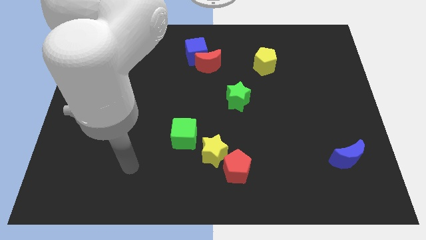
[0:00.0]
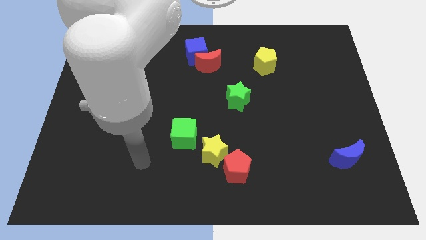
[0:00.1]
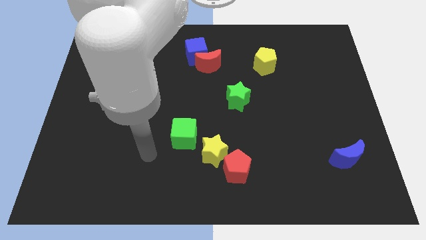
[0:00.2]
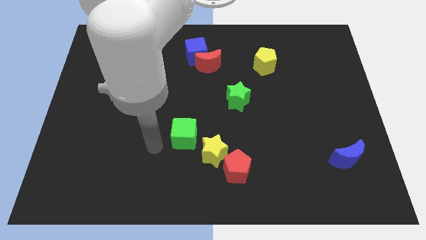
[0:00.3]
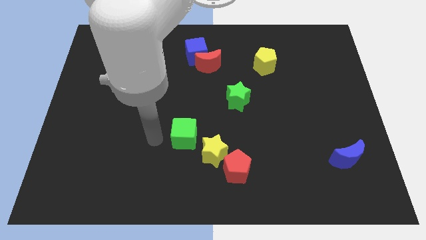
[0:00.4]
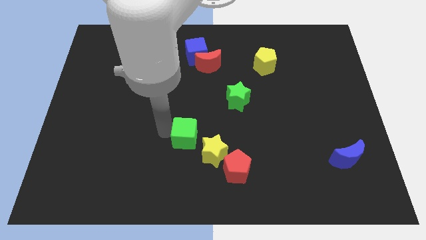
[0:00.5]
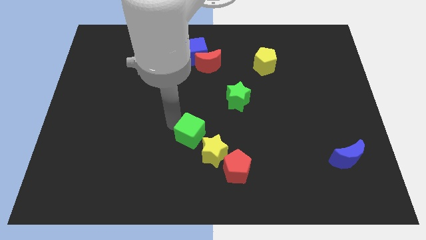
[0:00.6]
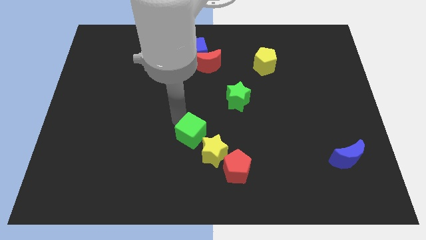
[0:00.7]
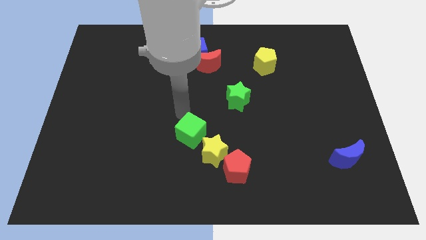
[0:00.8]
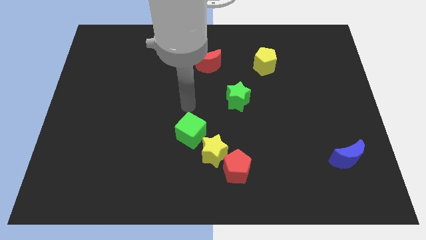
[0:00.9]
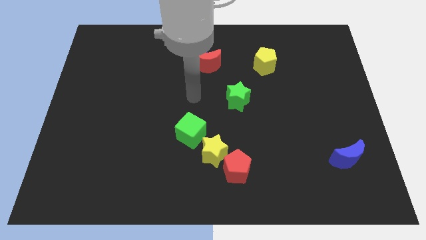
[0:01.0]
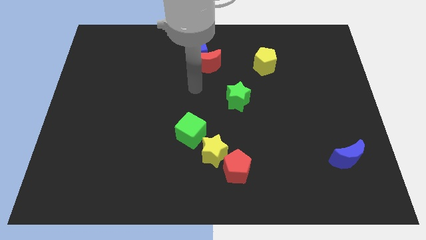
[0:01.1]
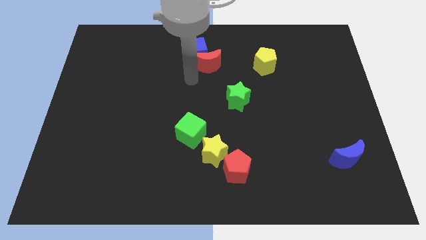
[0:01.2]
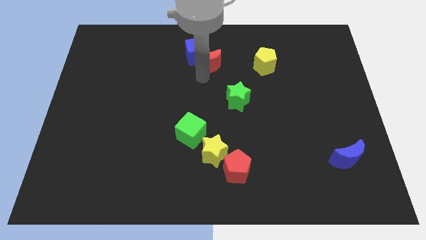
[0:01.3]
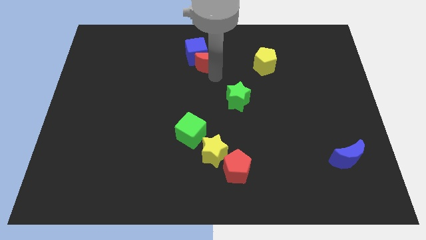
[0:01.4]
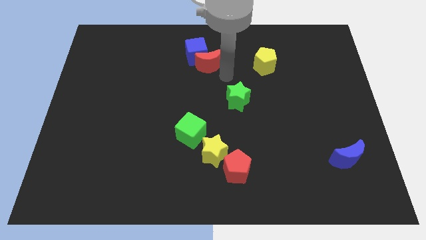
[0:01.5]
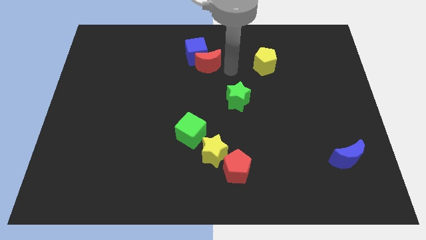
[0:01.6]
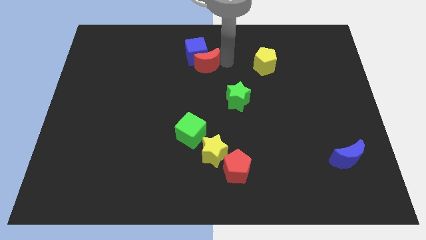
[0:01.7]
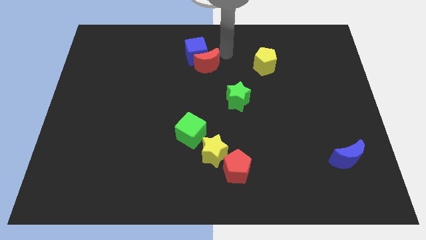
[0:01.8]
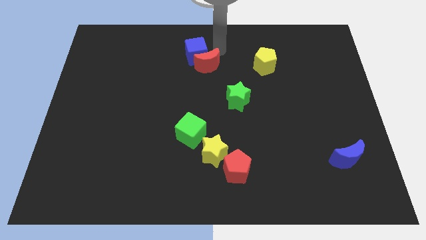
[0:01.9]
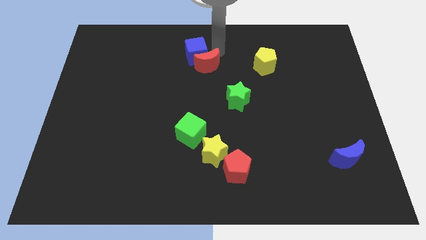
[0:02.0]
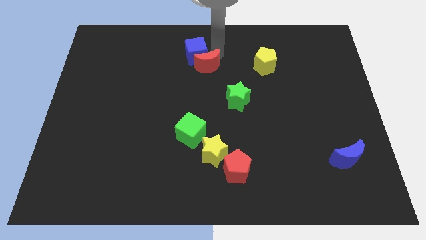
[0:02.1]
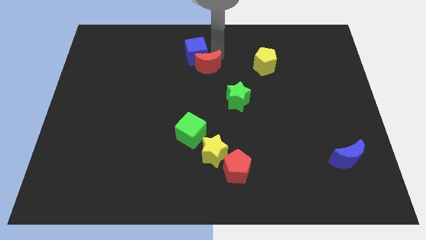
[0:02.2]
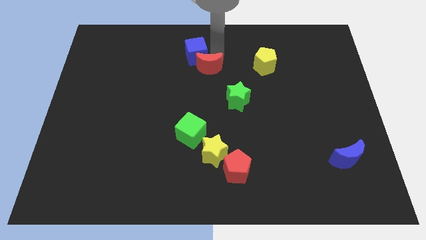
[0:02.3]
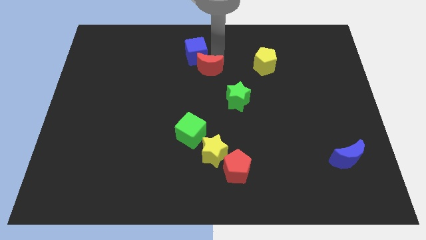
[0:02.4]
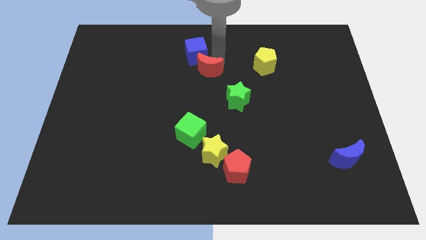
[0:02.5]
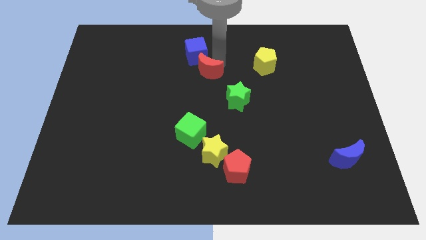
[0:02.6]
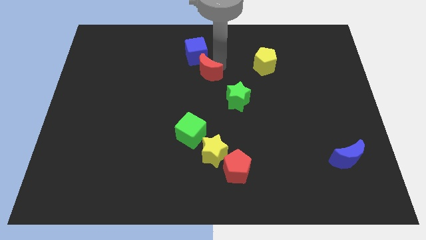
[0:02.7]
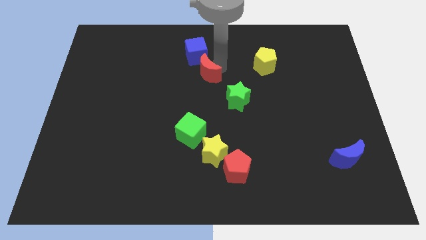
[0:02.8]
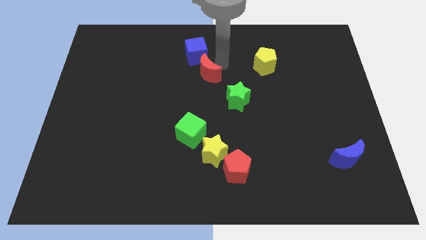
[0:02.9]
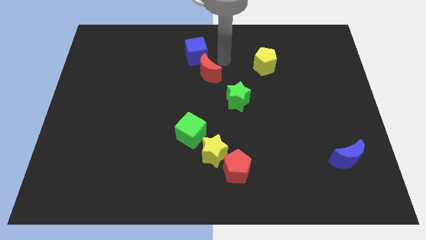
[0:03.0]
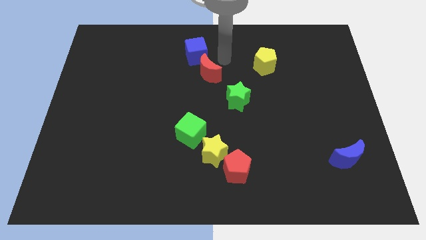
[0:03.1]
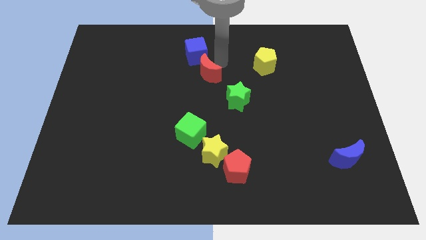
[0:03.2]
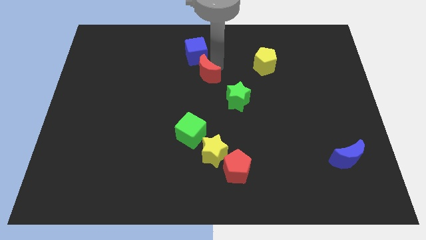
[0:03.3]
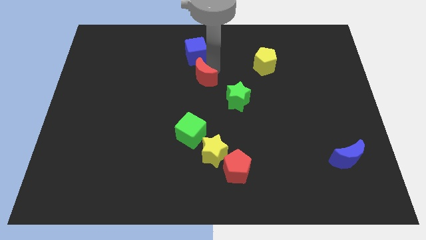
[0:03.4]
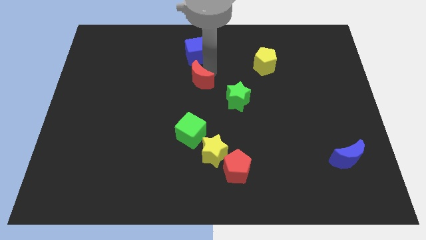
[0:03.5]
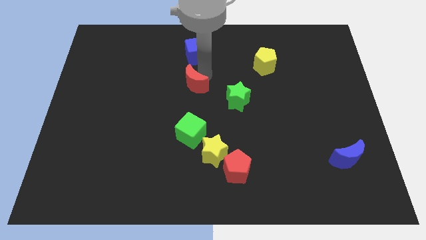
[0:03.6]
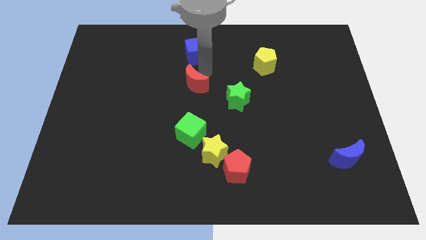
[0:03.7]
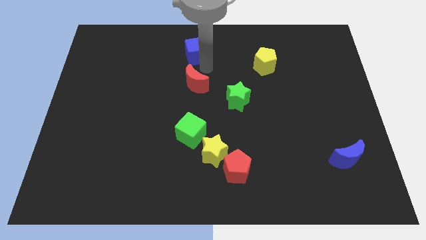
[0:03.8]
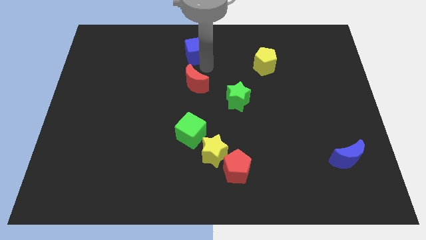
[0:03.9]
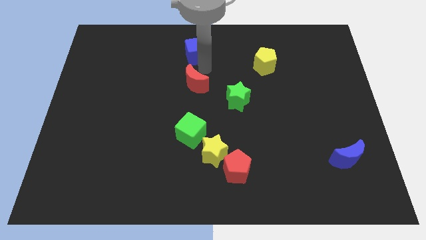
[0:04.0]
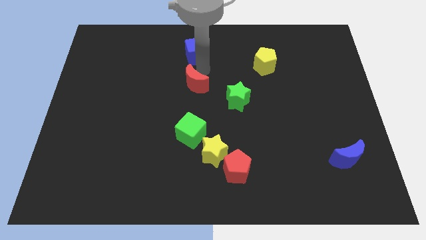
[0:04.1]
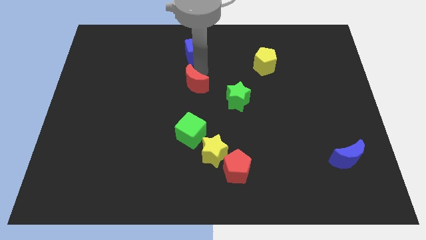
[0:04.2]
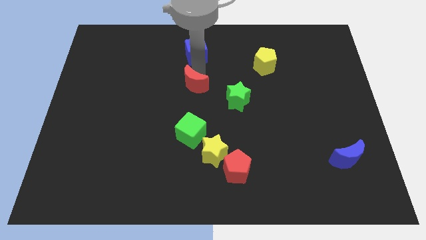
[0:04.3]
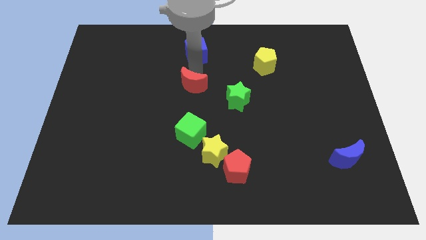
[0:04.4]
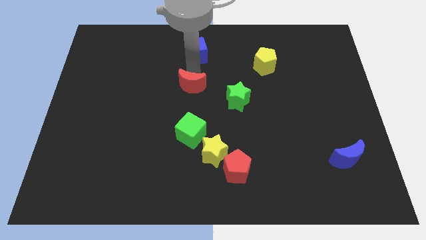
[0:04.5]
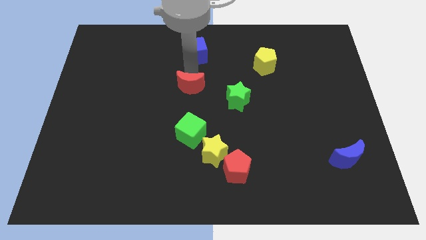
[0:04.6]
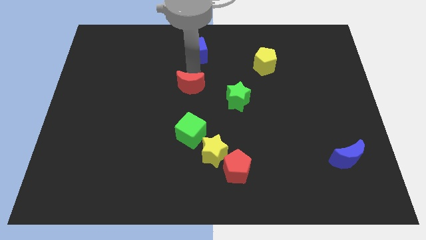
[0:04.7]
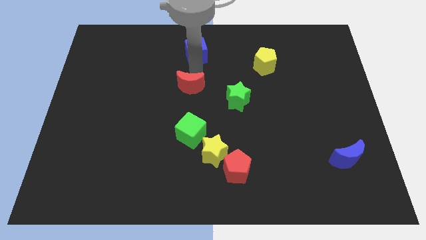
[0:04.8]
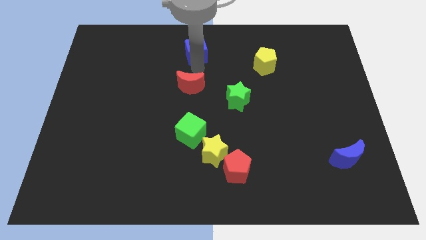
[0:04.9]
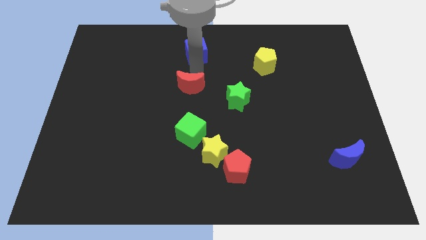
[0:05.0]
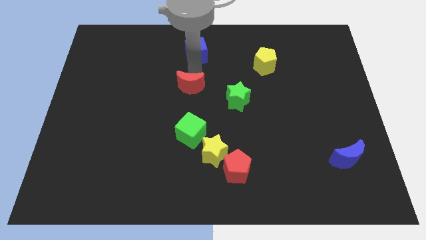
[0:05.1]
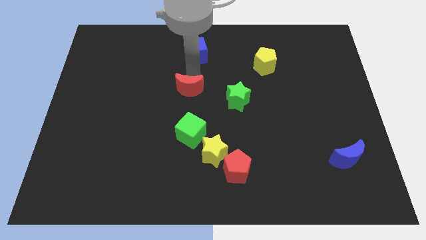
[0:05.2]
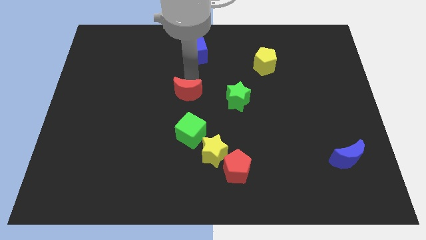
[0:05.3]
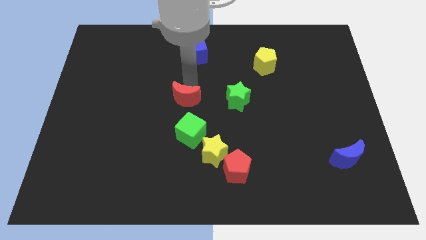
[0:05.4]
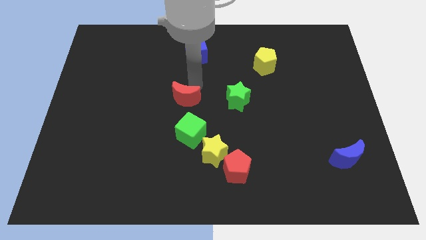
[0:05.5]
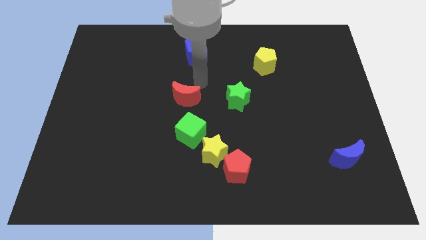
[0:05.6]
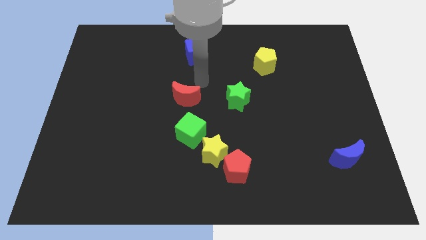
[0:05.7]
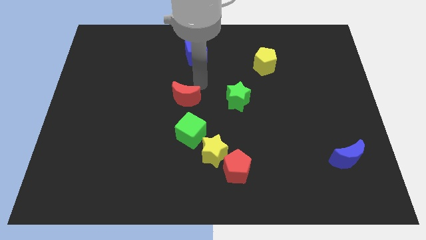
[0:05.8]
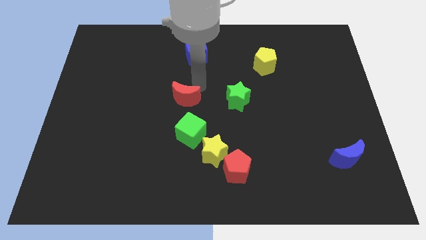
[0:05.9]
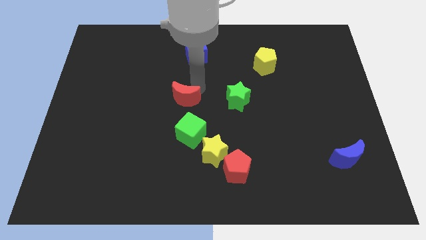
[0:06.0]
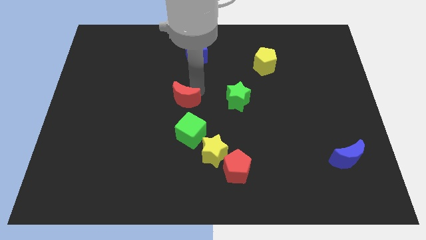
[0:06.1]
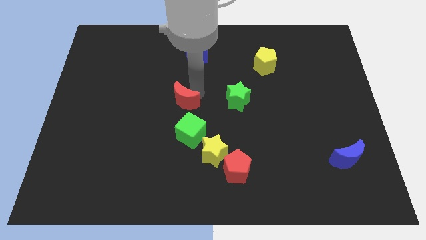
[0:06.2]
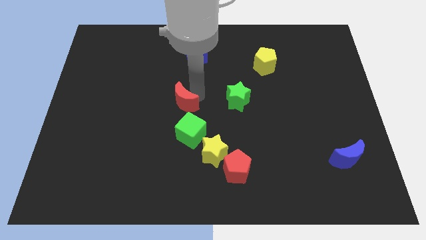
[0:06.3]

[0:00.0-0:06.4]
move the red moon to the top left of the green cube

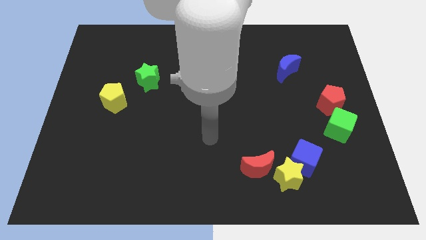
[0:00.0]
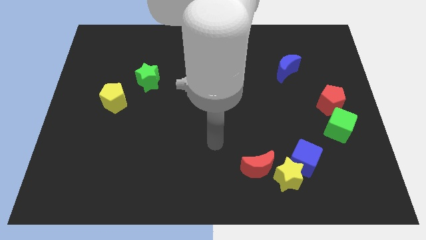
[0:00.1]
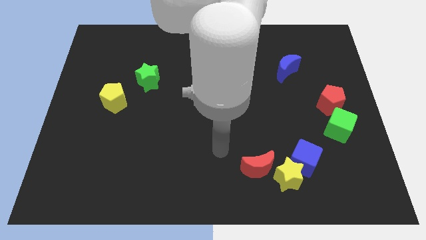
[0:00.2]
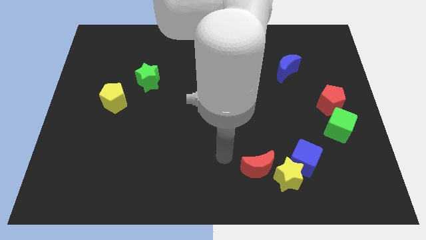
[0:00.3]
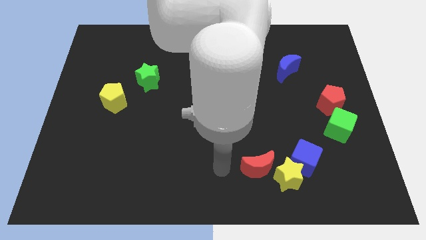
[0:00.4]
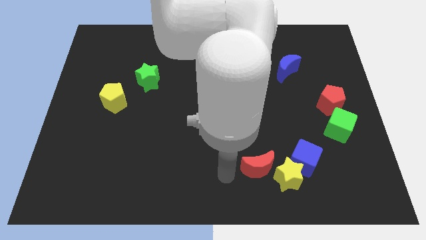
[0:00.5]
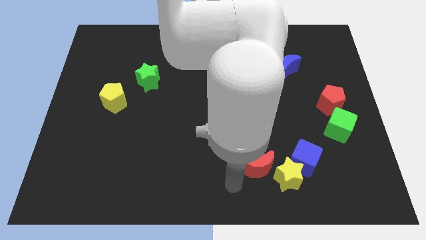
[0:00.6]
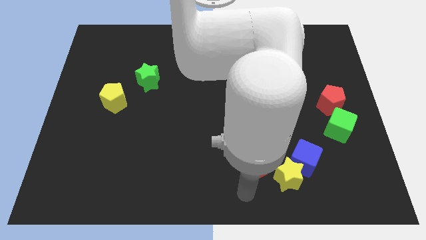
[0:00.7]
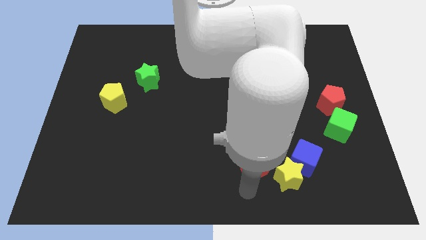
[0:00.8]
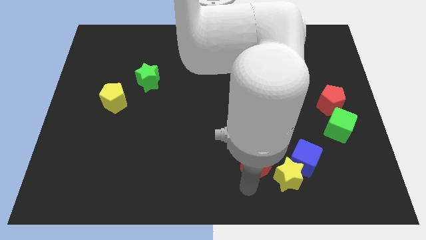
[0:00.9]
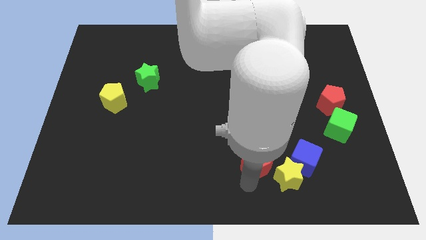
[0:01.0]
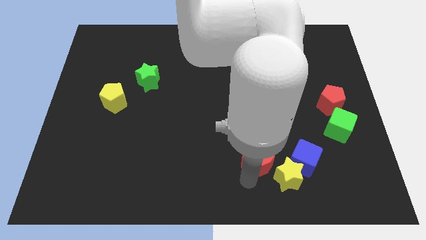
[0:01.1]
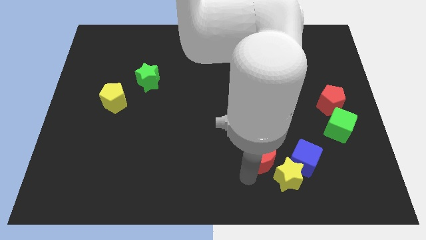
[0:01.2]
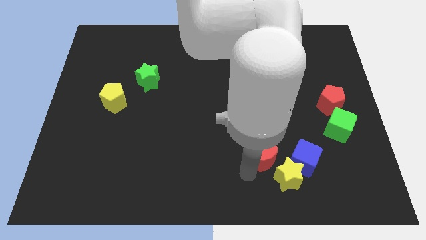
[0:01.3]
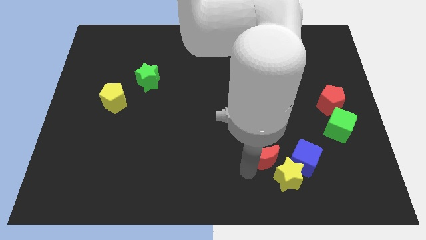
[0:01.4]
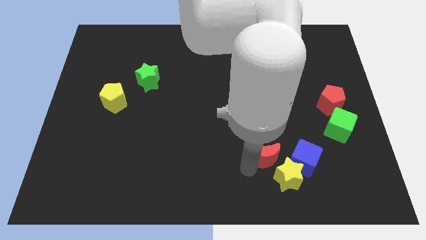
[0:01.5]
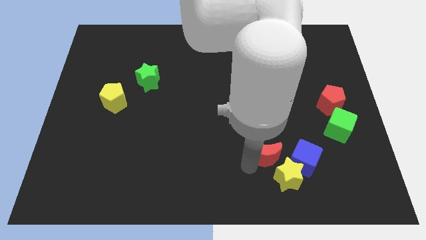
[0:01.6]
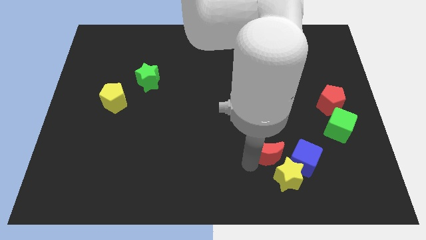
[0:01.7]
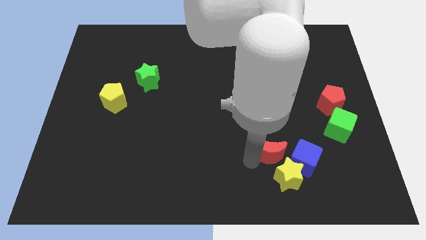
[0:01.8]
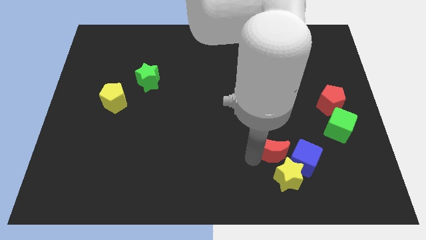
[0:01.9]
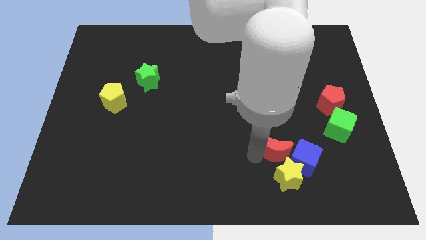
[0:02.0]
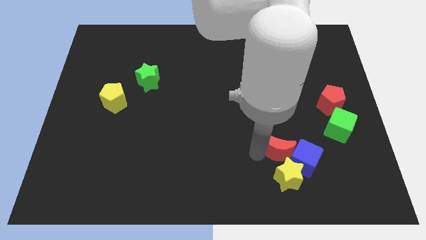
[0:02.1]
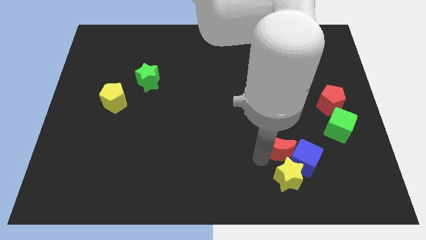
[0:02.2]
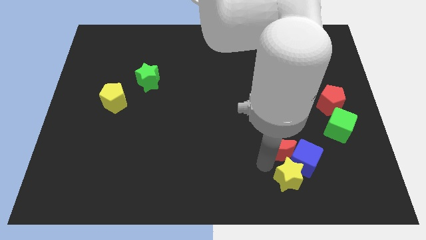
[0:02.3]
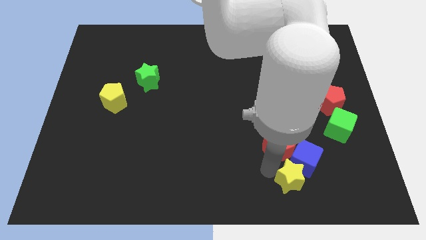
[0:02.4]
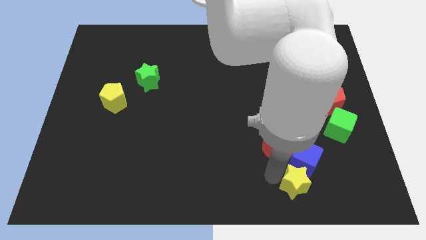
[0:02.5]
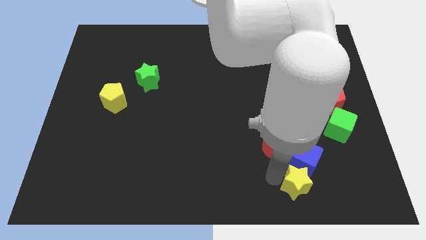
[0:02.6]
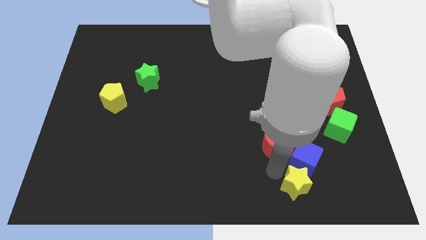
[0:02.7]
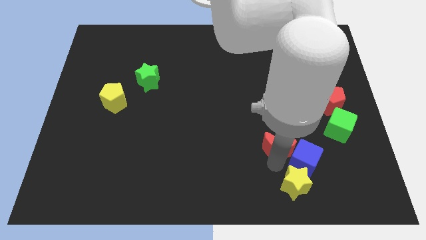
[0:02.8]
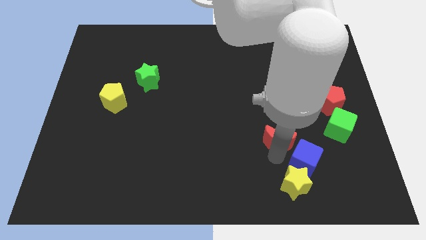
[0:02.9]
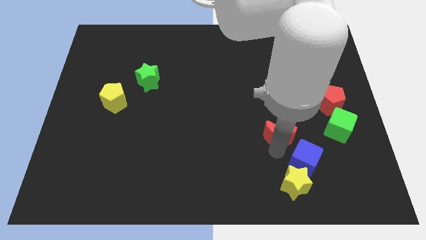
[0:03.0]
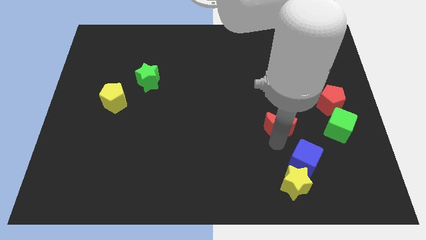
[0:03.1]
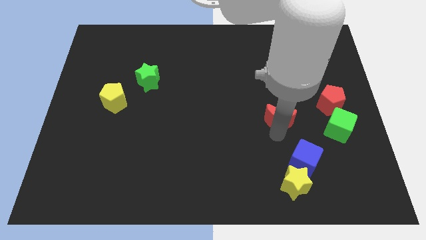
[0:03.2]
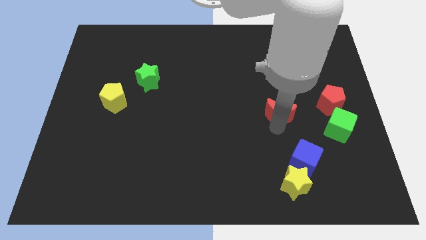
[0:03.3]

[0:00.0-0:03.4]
push the red moon left of the red pentagon
